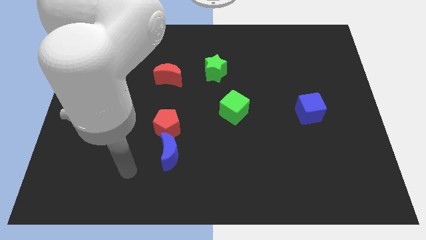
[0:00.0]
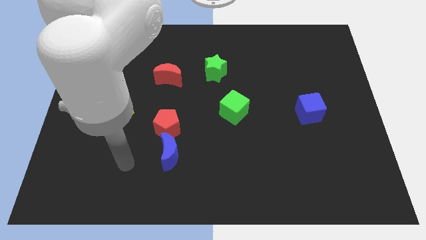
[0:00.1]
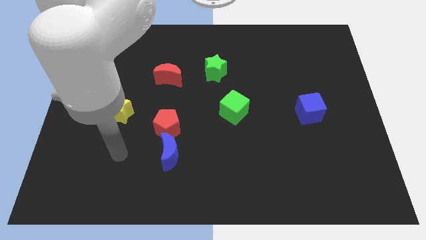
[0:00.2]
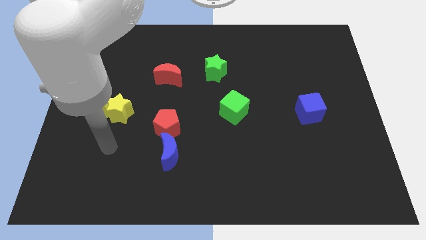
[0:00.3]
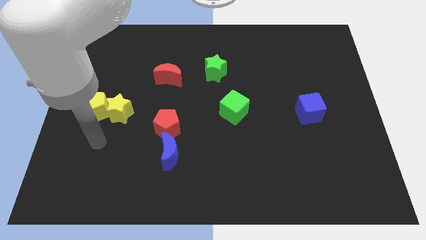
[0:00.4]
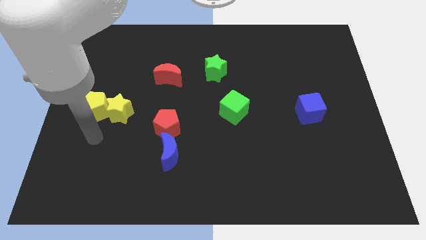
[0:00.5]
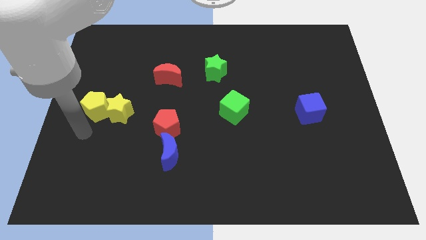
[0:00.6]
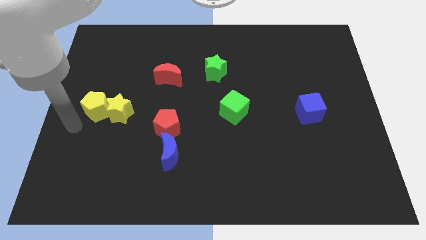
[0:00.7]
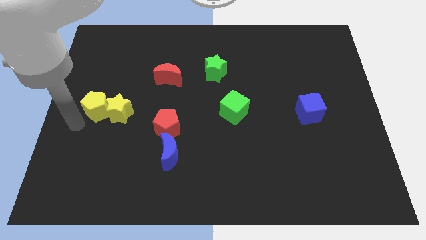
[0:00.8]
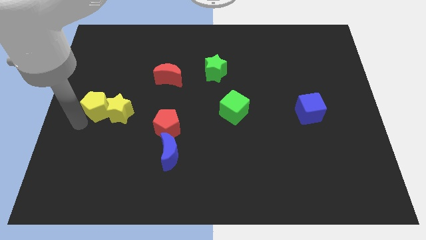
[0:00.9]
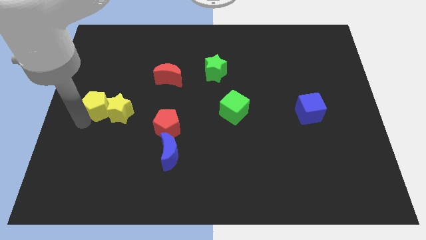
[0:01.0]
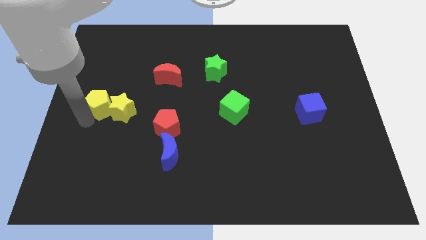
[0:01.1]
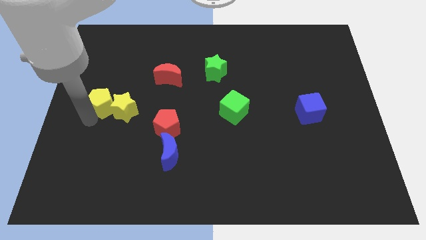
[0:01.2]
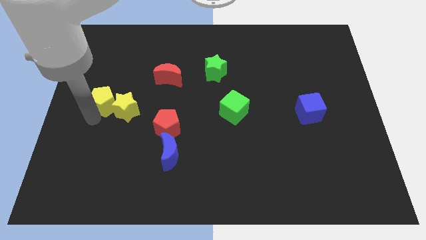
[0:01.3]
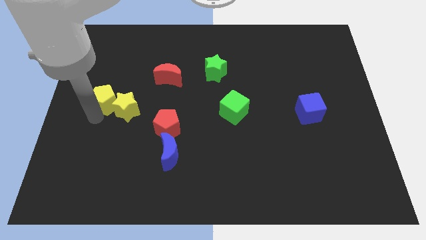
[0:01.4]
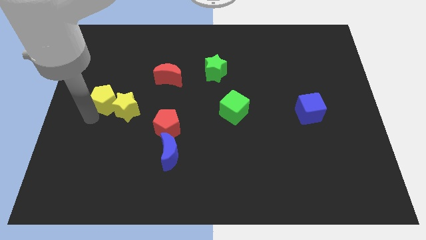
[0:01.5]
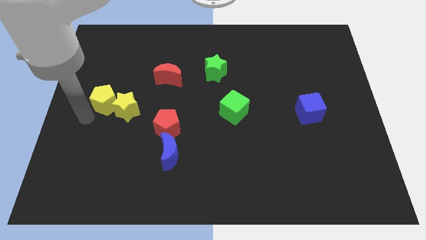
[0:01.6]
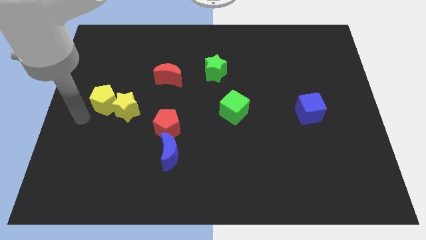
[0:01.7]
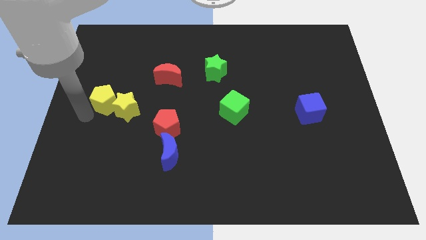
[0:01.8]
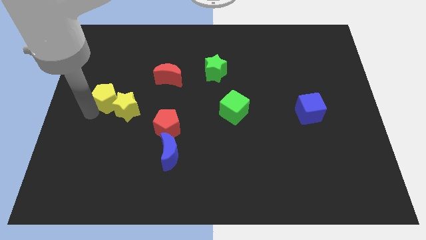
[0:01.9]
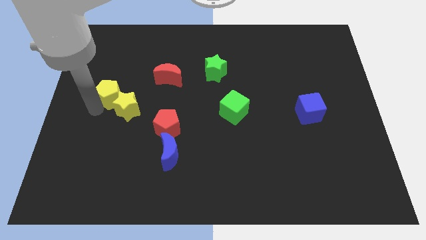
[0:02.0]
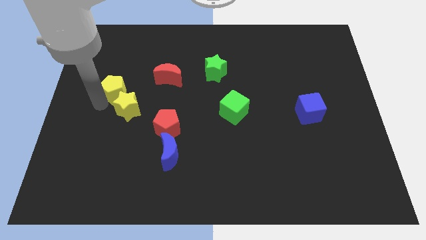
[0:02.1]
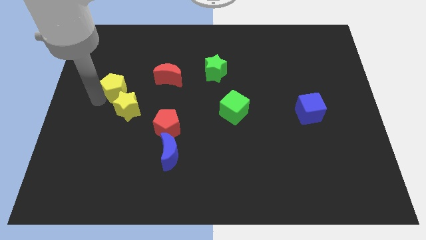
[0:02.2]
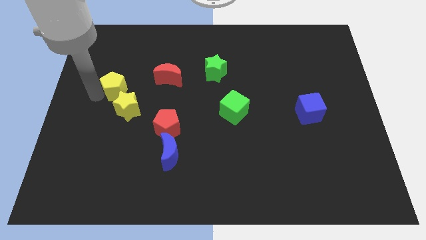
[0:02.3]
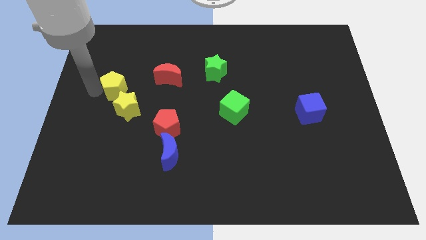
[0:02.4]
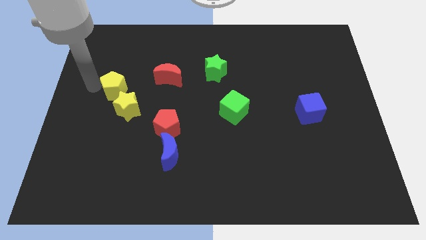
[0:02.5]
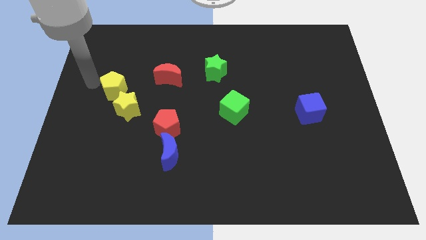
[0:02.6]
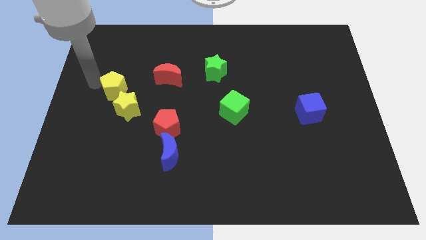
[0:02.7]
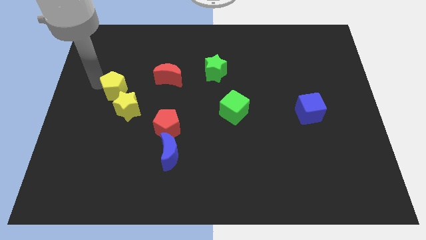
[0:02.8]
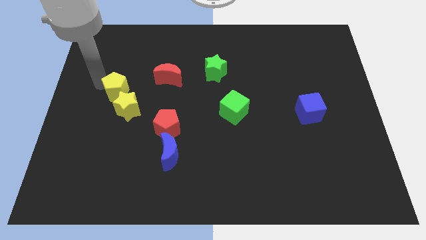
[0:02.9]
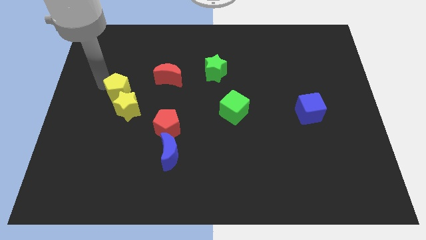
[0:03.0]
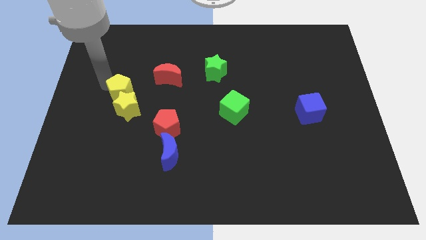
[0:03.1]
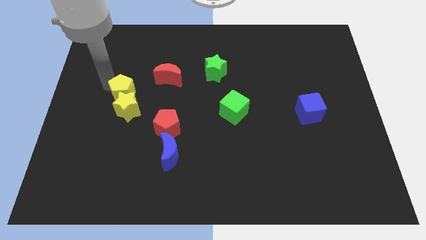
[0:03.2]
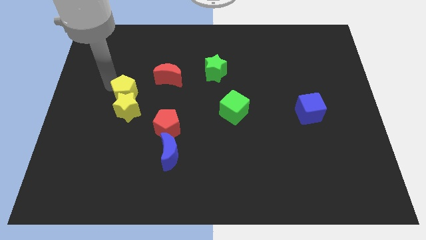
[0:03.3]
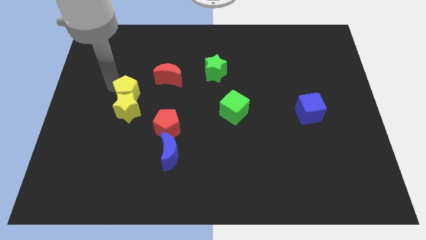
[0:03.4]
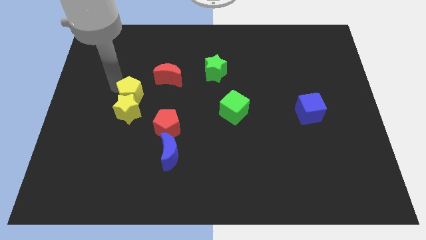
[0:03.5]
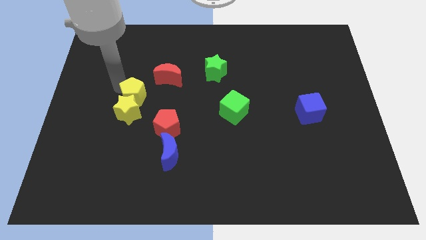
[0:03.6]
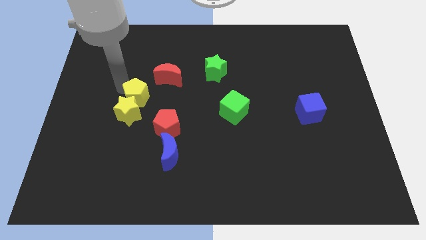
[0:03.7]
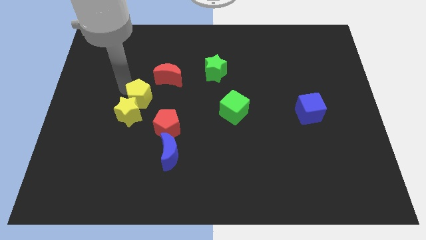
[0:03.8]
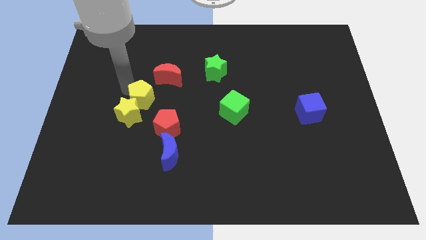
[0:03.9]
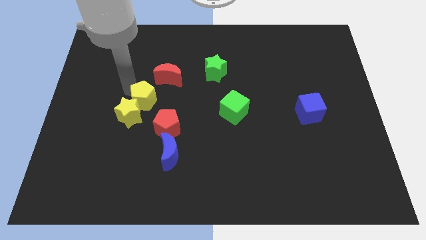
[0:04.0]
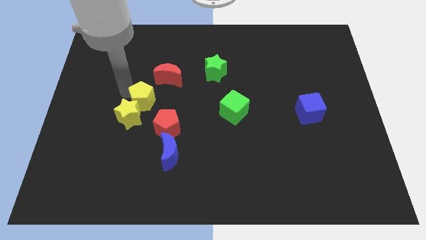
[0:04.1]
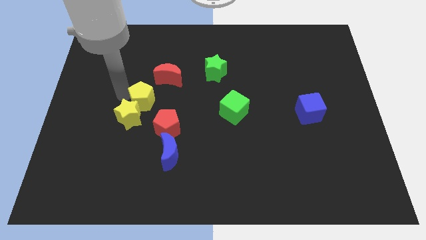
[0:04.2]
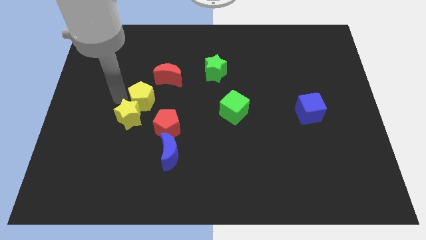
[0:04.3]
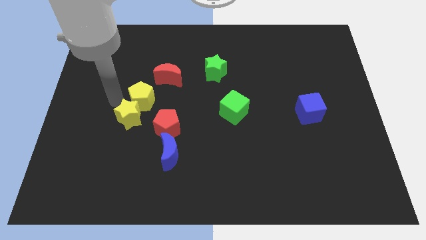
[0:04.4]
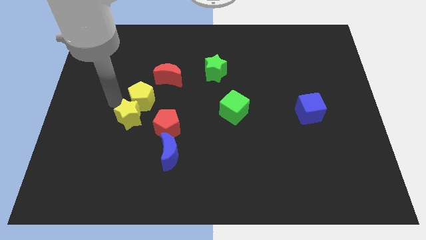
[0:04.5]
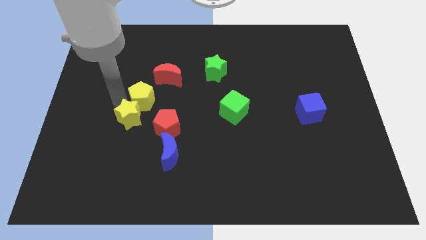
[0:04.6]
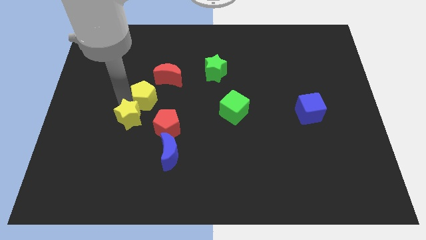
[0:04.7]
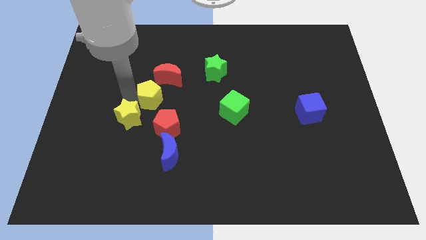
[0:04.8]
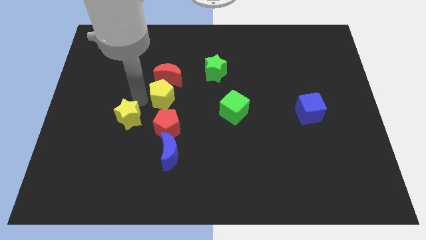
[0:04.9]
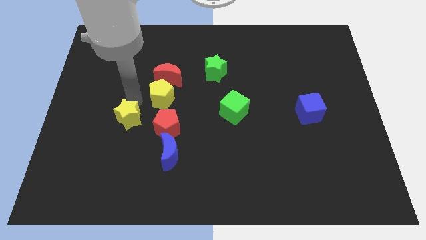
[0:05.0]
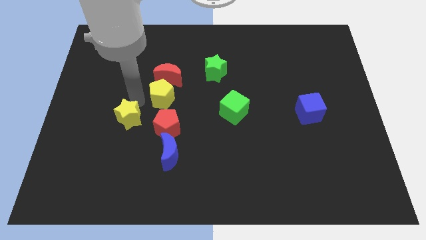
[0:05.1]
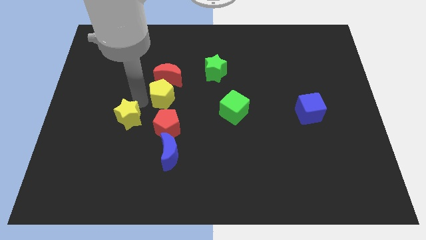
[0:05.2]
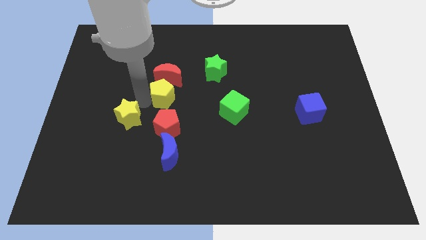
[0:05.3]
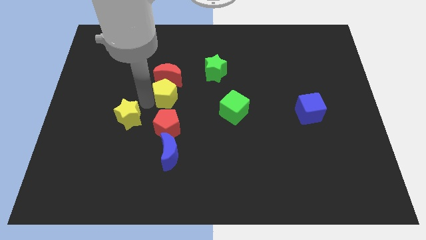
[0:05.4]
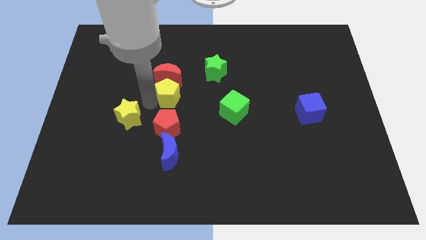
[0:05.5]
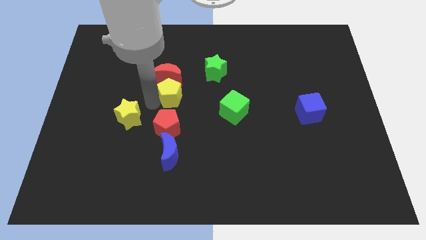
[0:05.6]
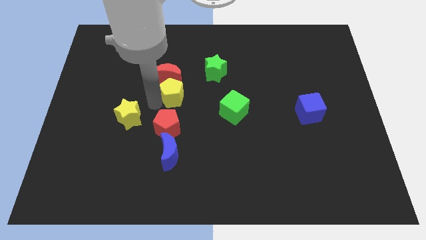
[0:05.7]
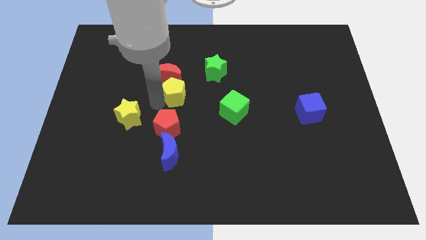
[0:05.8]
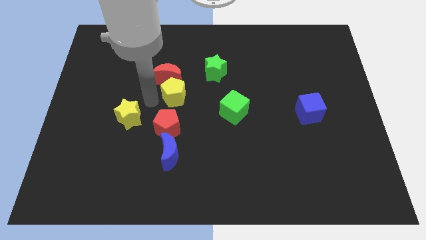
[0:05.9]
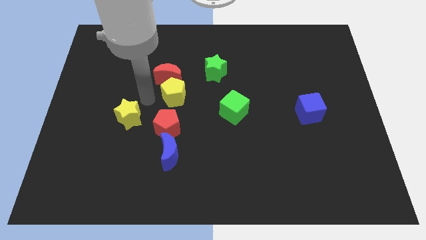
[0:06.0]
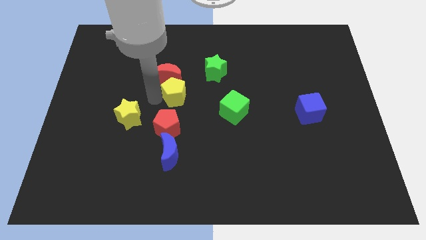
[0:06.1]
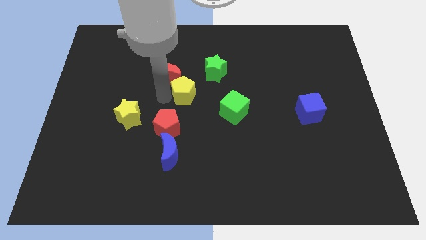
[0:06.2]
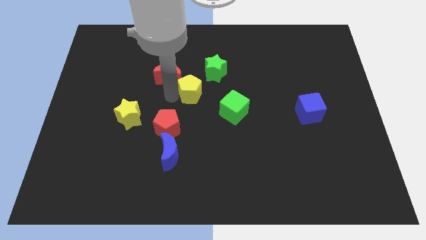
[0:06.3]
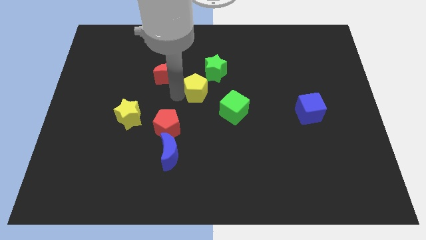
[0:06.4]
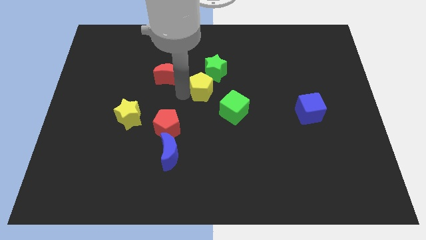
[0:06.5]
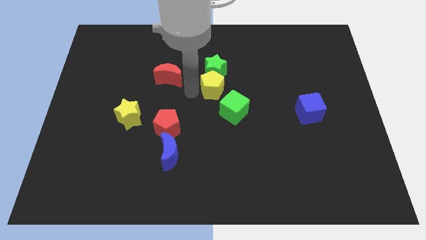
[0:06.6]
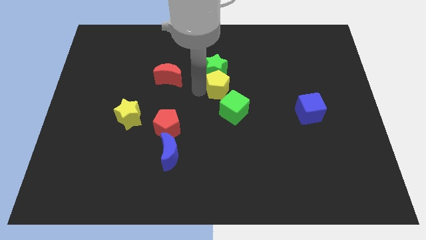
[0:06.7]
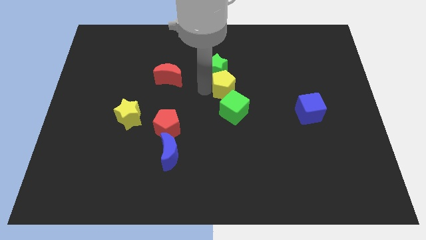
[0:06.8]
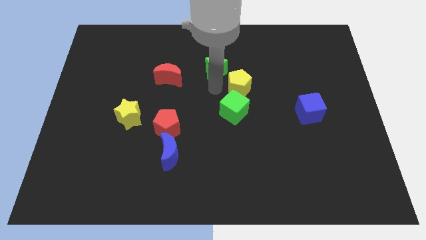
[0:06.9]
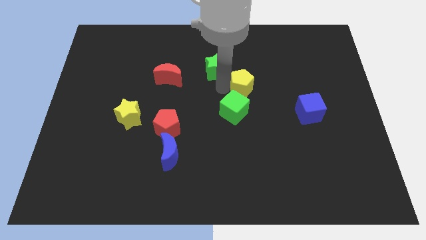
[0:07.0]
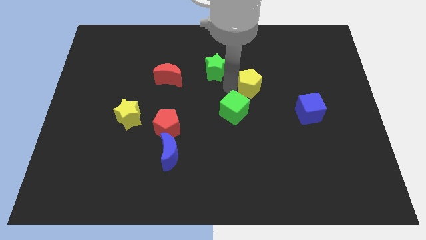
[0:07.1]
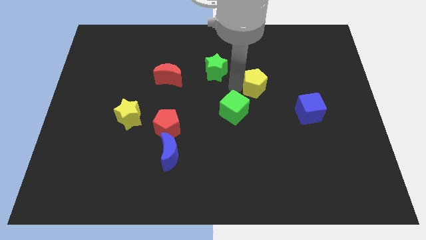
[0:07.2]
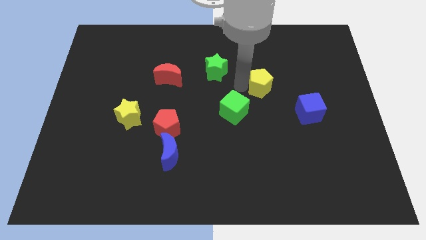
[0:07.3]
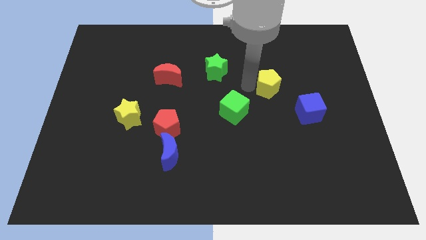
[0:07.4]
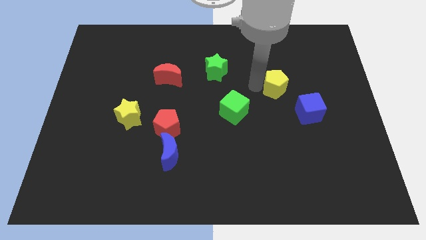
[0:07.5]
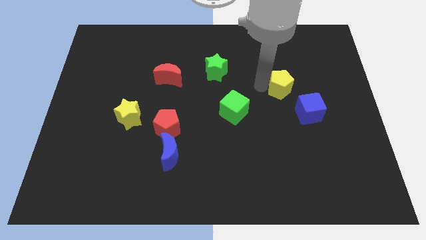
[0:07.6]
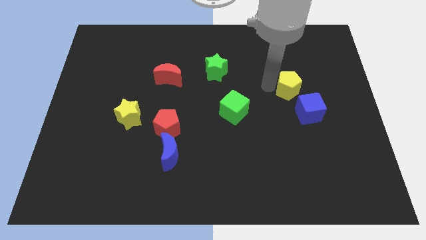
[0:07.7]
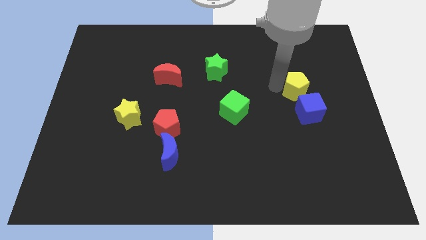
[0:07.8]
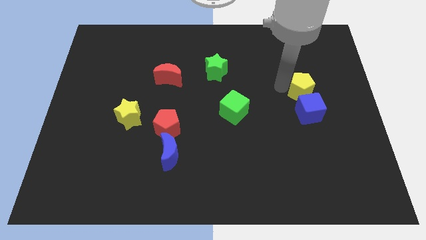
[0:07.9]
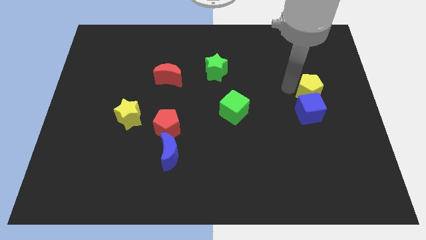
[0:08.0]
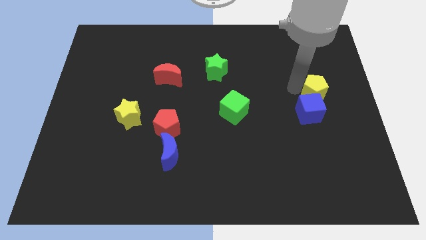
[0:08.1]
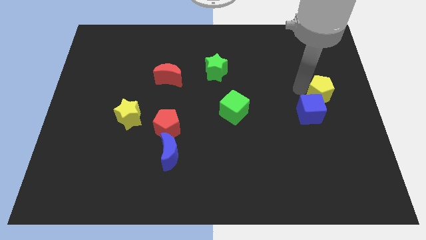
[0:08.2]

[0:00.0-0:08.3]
slide the yellow pentagon to the right side of the board

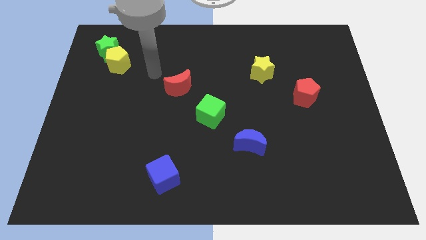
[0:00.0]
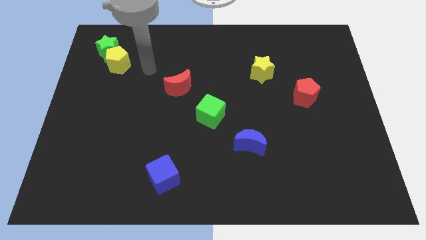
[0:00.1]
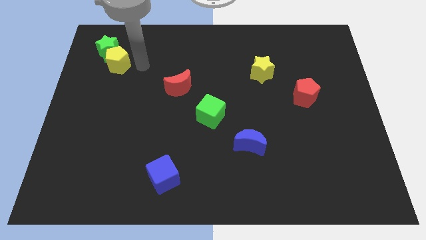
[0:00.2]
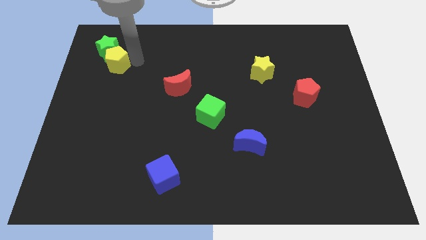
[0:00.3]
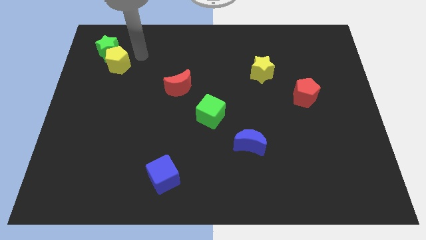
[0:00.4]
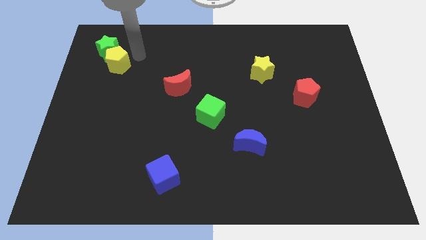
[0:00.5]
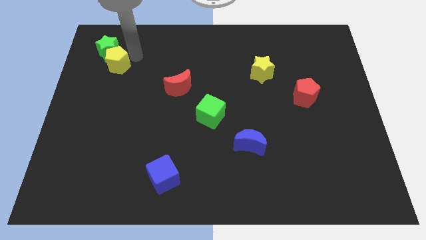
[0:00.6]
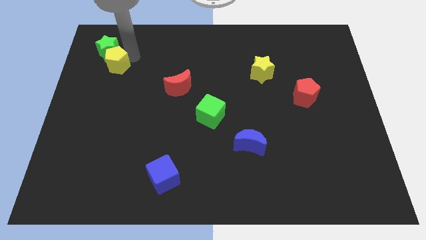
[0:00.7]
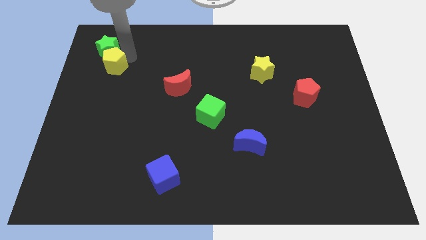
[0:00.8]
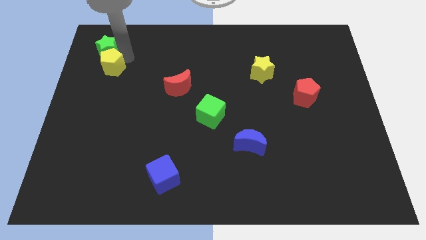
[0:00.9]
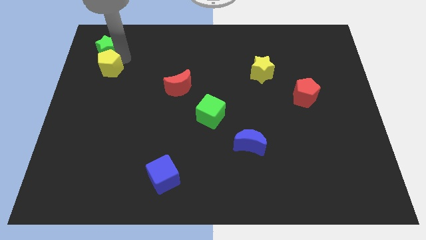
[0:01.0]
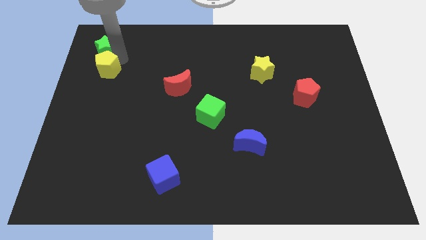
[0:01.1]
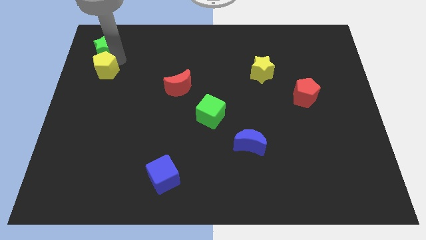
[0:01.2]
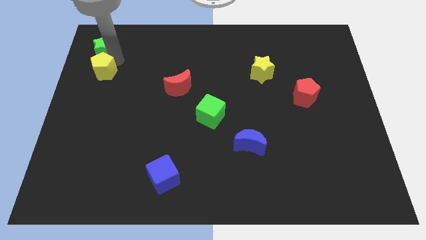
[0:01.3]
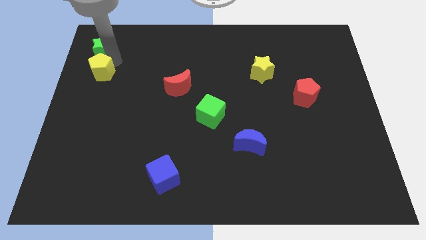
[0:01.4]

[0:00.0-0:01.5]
put the yellow pentagon to the left side of the board
